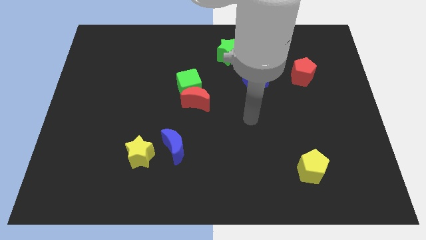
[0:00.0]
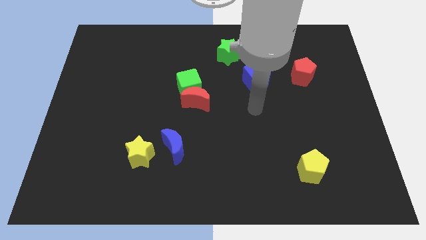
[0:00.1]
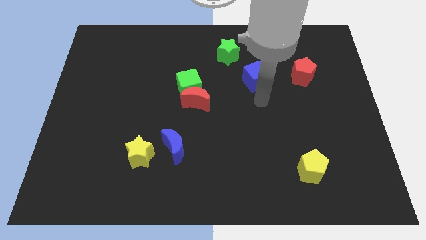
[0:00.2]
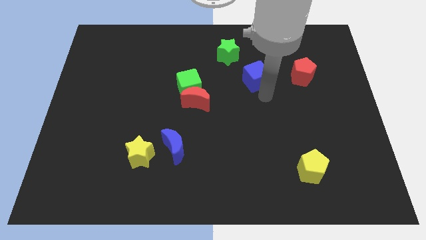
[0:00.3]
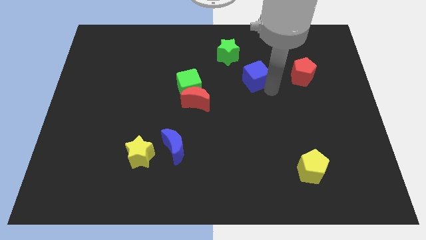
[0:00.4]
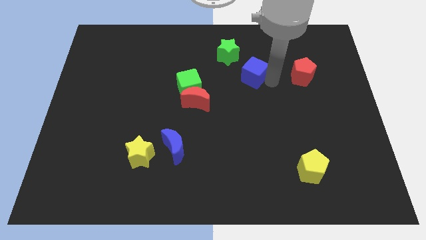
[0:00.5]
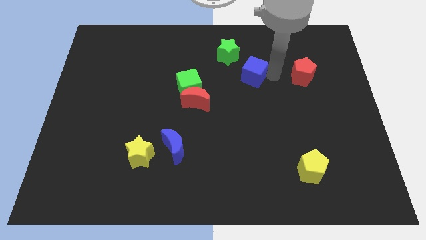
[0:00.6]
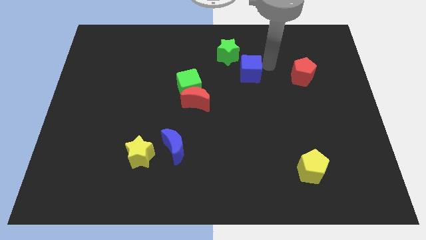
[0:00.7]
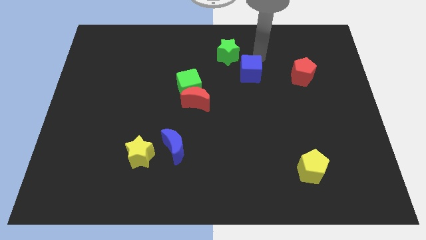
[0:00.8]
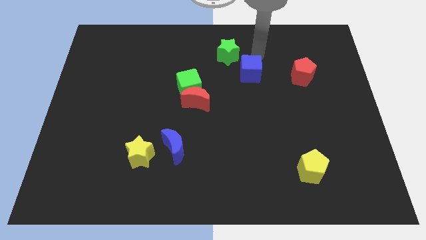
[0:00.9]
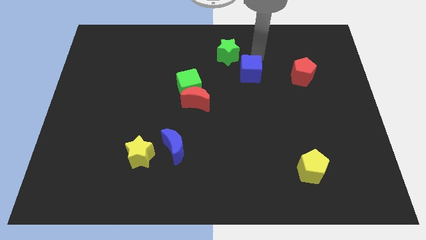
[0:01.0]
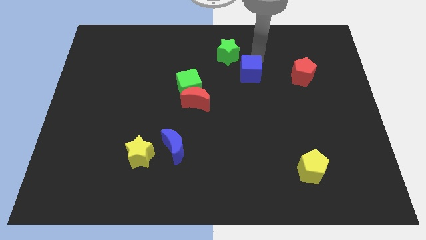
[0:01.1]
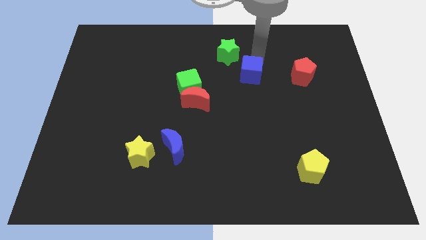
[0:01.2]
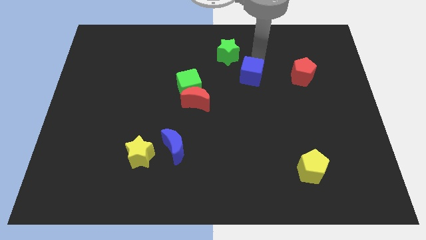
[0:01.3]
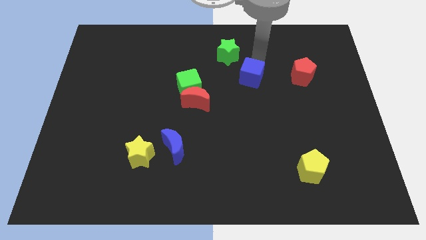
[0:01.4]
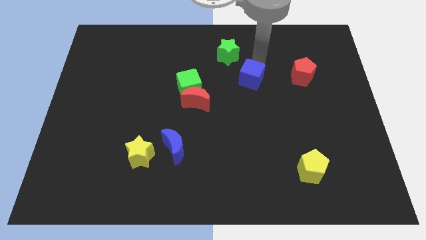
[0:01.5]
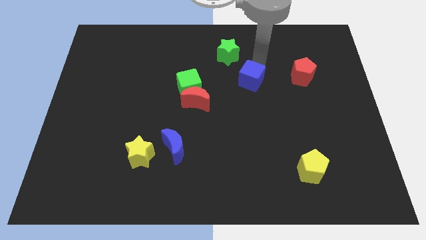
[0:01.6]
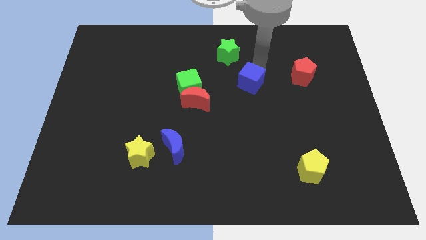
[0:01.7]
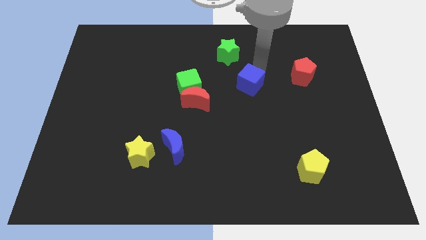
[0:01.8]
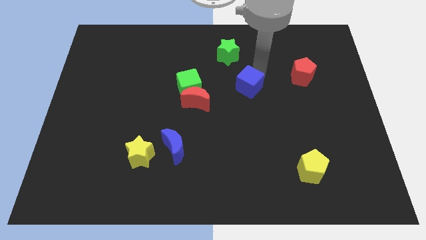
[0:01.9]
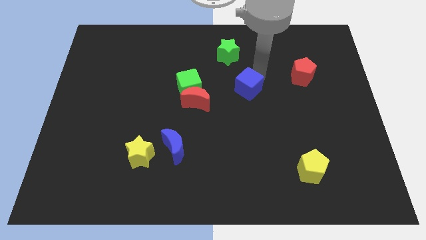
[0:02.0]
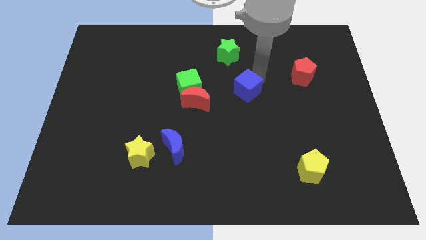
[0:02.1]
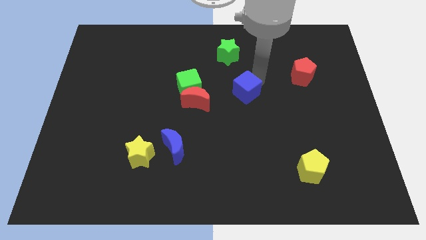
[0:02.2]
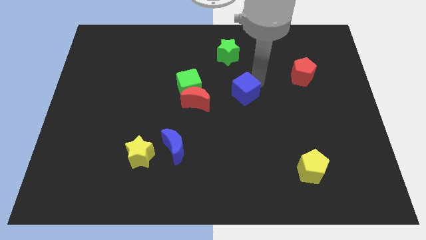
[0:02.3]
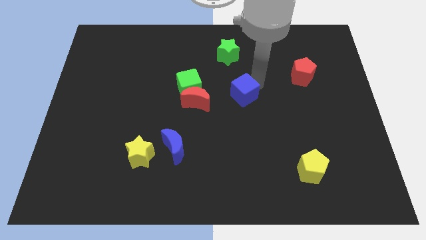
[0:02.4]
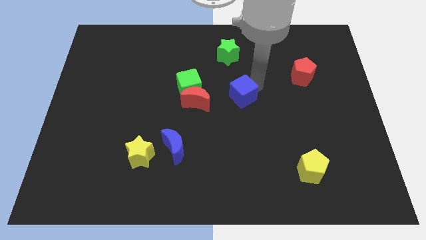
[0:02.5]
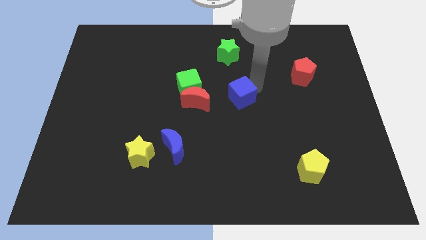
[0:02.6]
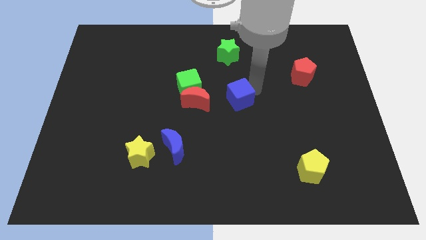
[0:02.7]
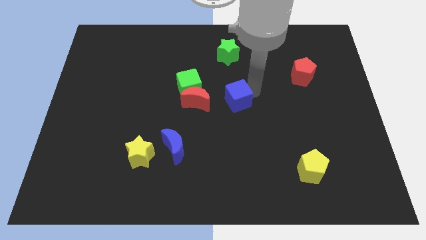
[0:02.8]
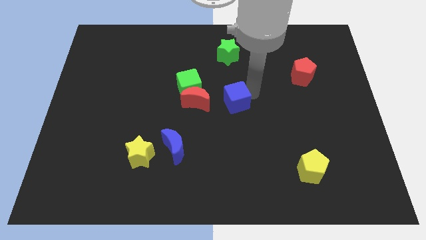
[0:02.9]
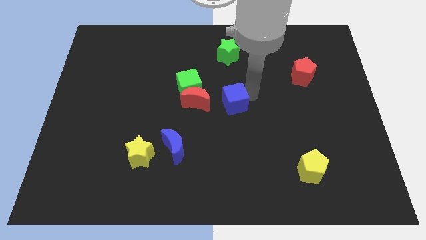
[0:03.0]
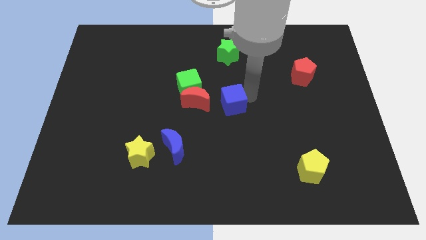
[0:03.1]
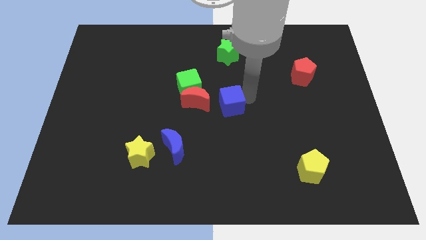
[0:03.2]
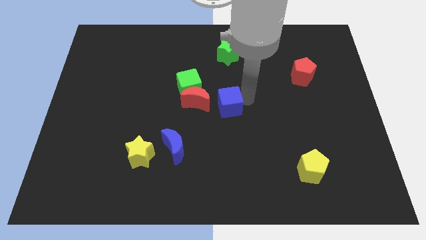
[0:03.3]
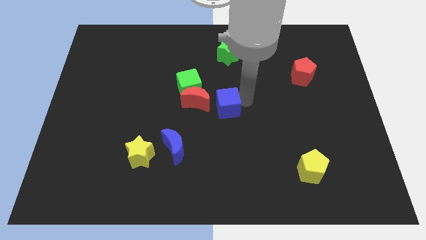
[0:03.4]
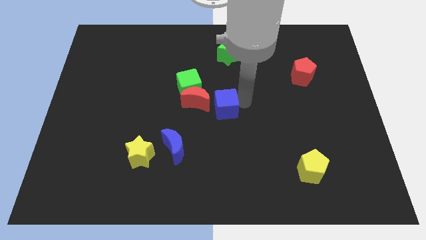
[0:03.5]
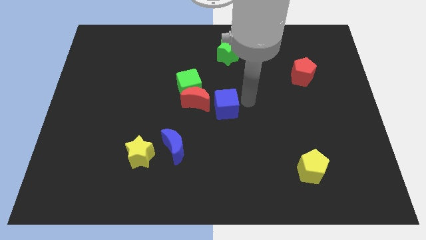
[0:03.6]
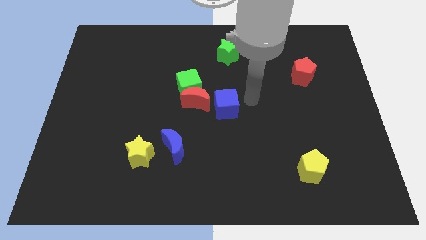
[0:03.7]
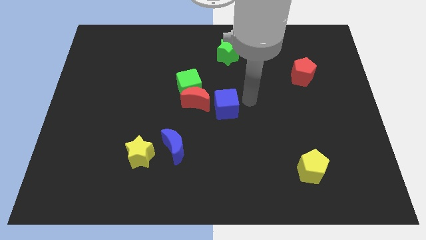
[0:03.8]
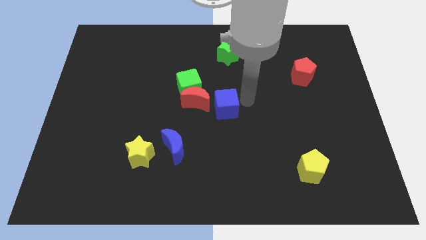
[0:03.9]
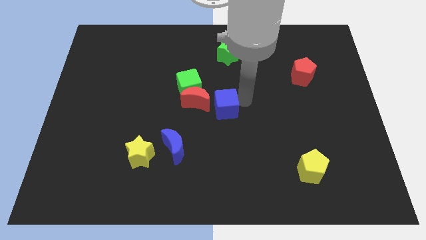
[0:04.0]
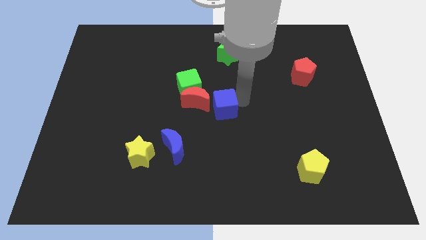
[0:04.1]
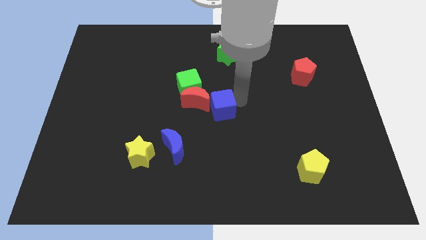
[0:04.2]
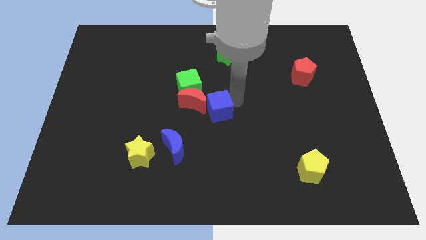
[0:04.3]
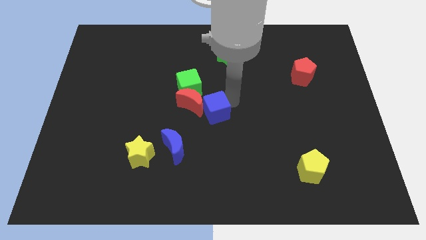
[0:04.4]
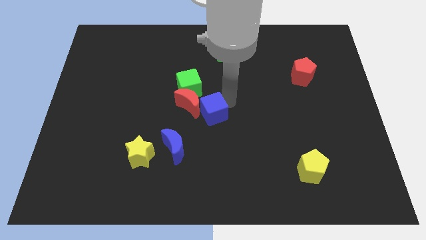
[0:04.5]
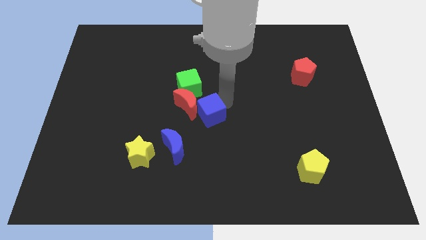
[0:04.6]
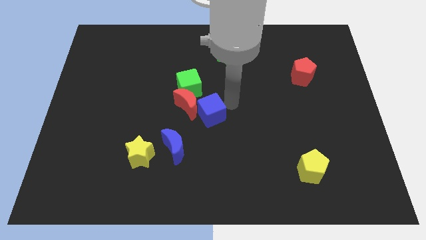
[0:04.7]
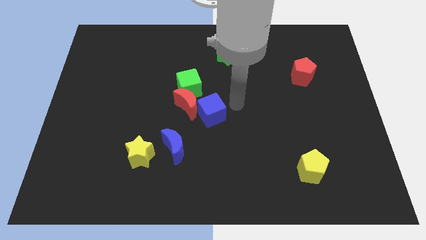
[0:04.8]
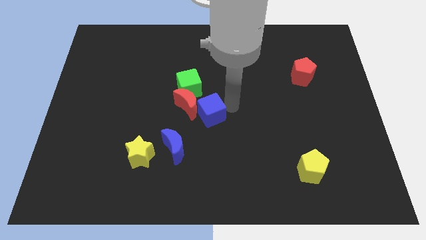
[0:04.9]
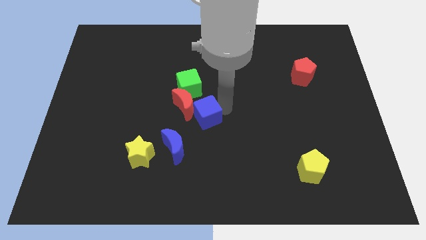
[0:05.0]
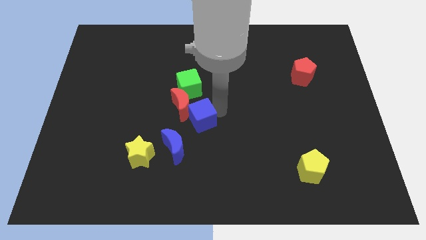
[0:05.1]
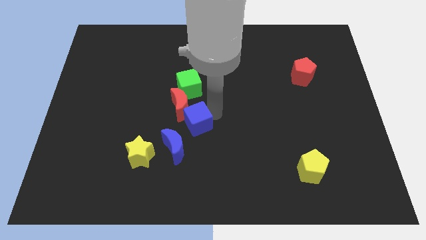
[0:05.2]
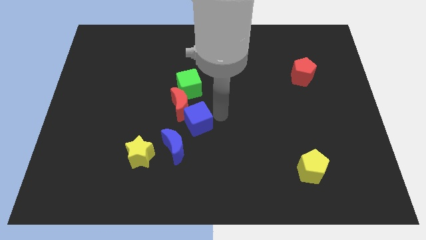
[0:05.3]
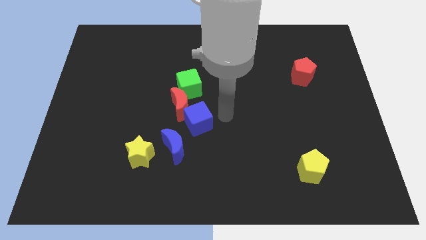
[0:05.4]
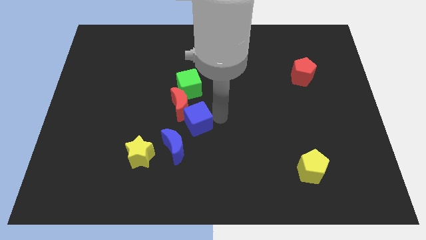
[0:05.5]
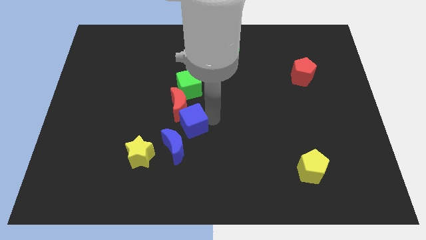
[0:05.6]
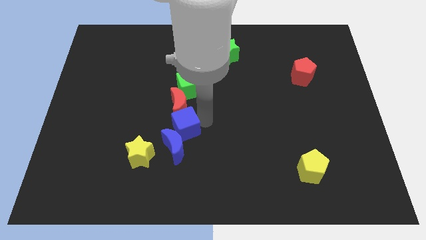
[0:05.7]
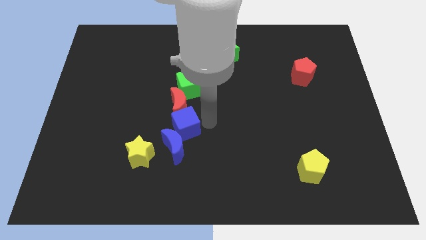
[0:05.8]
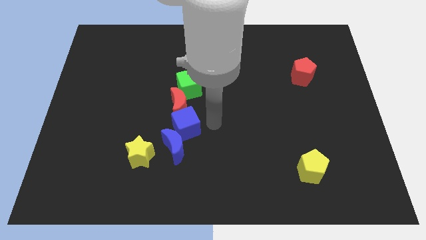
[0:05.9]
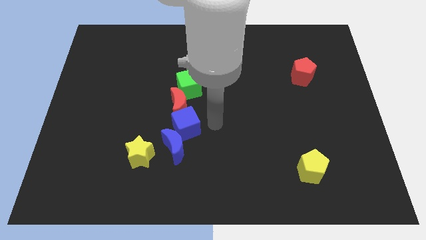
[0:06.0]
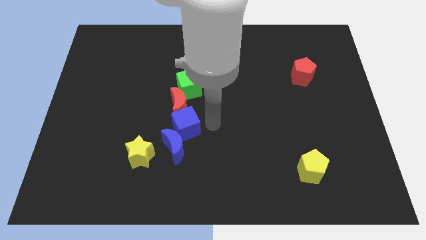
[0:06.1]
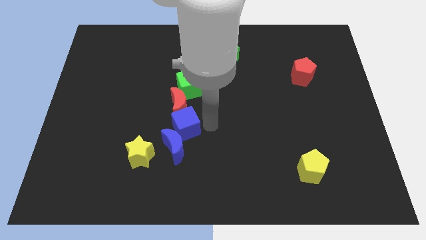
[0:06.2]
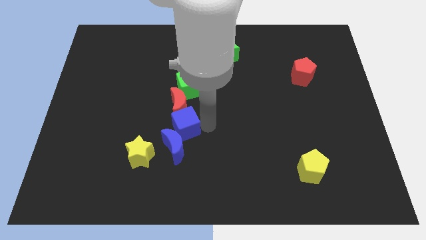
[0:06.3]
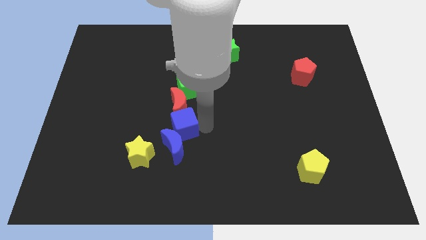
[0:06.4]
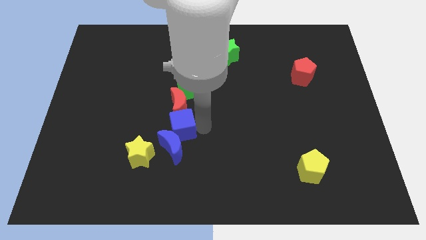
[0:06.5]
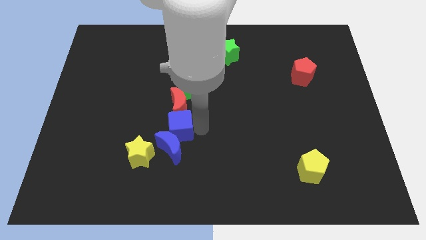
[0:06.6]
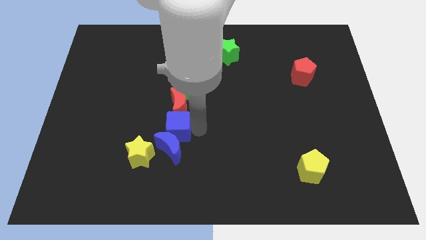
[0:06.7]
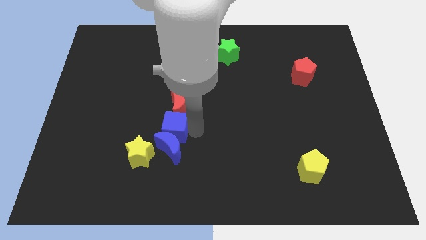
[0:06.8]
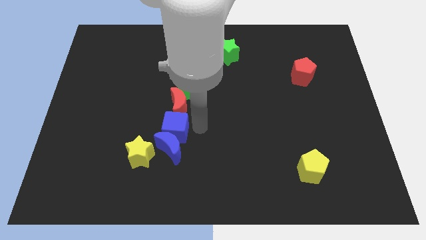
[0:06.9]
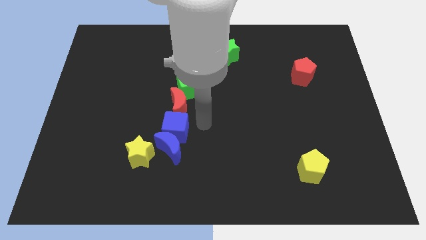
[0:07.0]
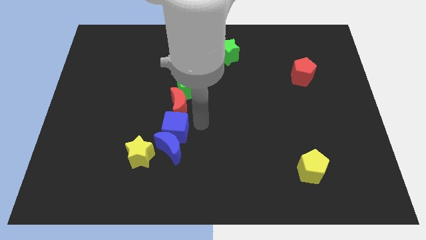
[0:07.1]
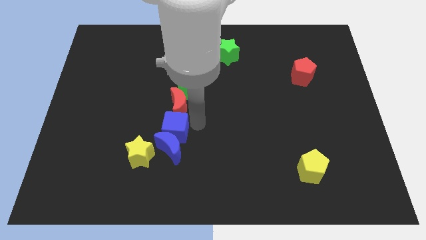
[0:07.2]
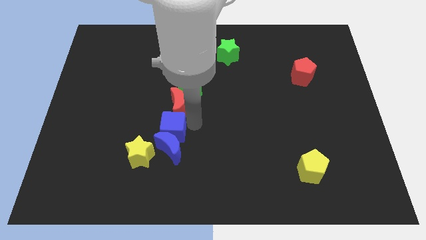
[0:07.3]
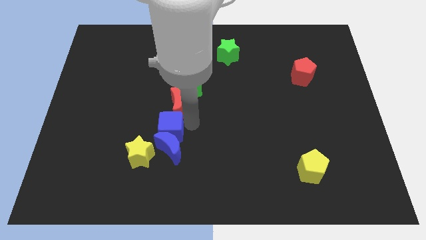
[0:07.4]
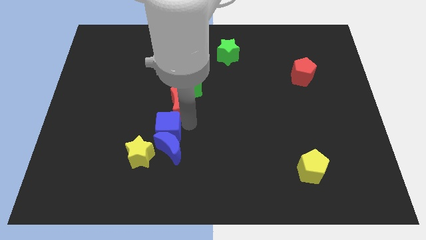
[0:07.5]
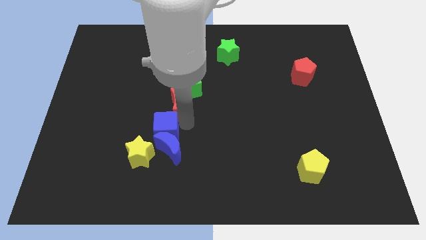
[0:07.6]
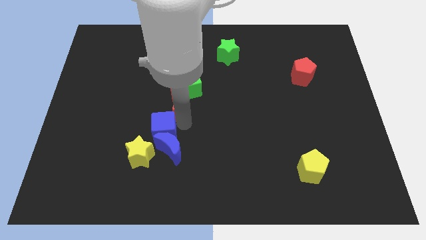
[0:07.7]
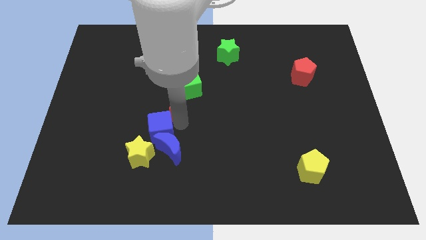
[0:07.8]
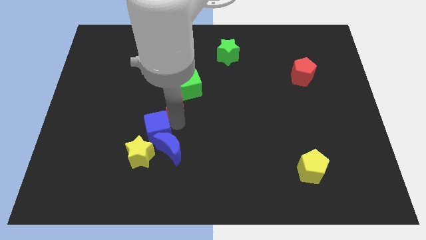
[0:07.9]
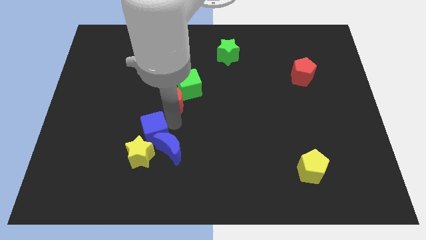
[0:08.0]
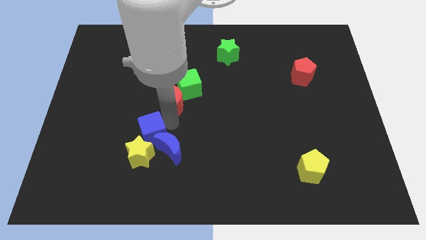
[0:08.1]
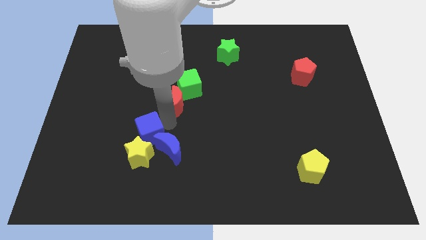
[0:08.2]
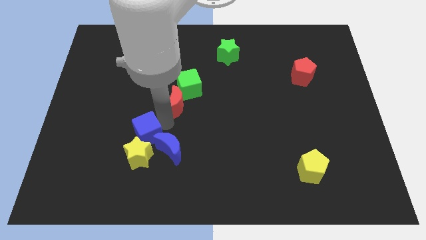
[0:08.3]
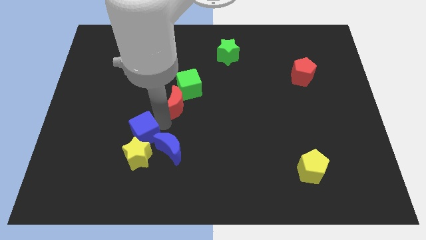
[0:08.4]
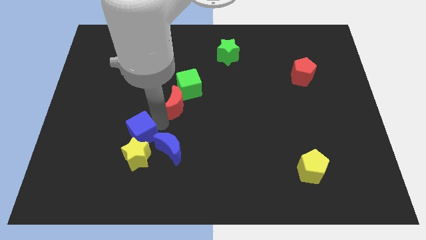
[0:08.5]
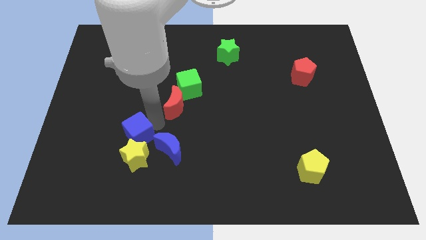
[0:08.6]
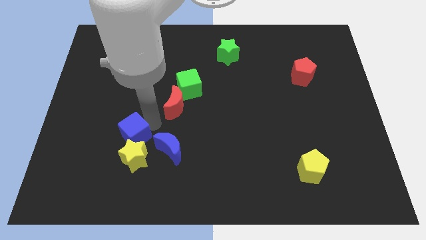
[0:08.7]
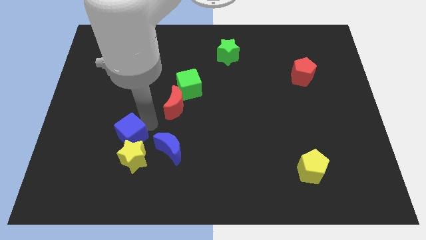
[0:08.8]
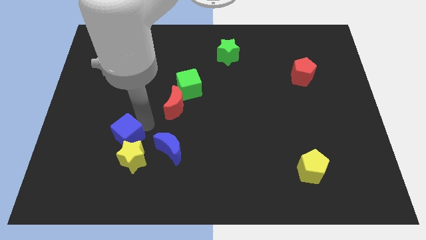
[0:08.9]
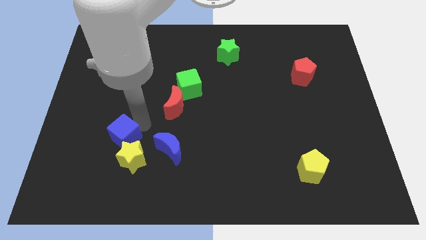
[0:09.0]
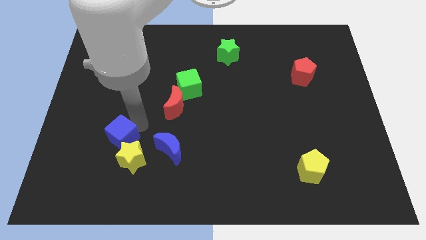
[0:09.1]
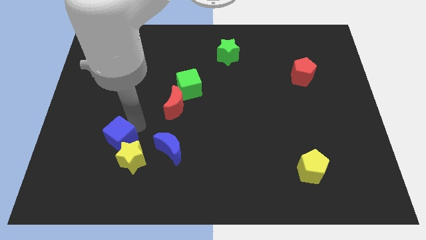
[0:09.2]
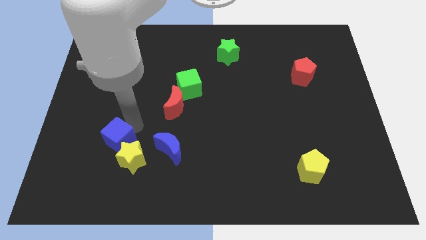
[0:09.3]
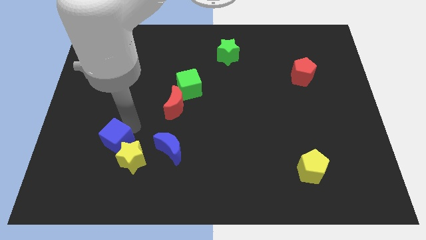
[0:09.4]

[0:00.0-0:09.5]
slide the blue cube just left of the yellow star
